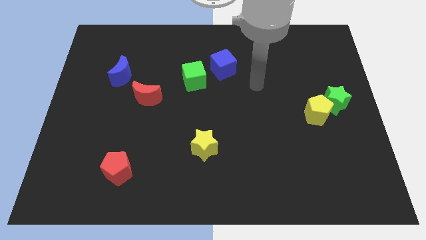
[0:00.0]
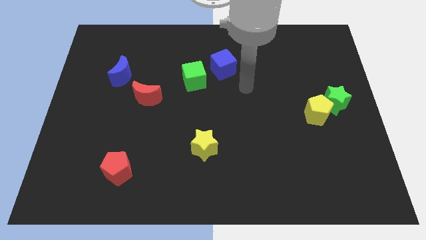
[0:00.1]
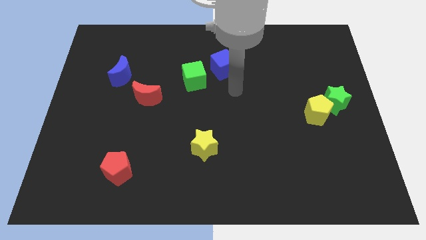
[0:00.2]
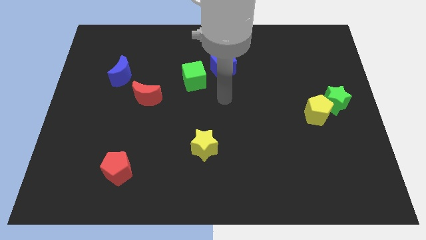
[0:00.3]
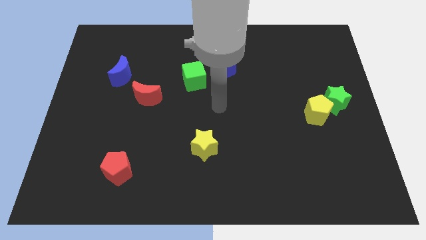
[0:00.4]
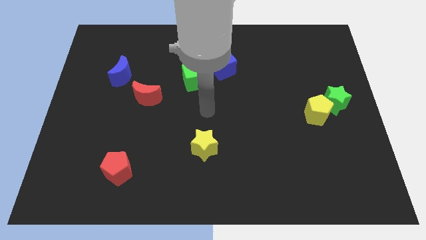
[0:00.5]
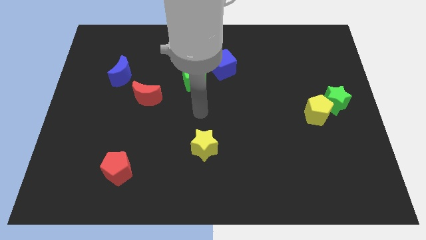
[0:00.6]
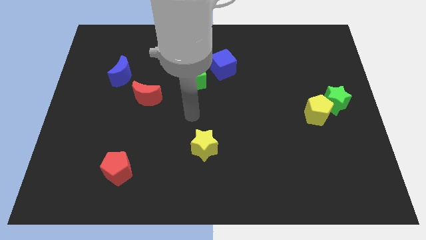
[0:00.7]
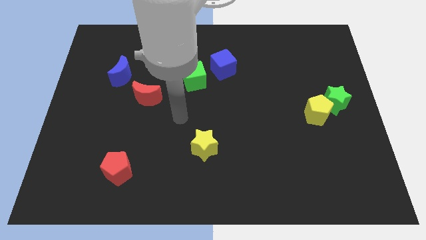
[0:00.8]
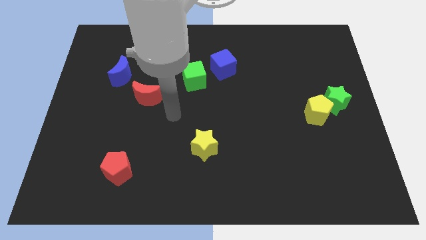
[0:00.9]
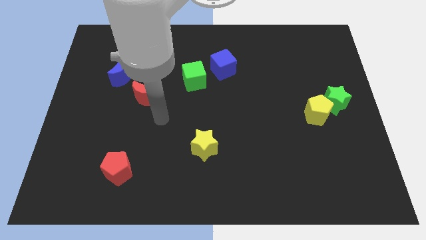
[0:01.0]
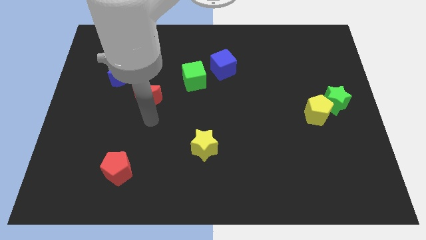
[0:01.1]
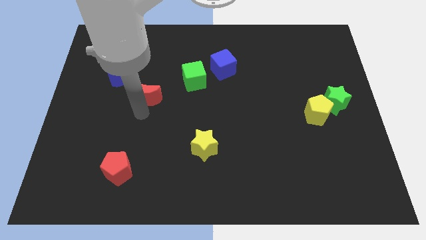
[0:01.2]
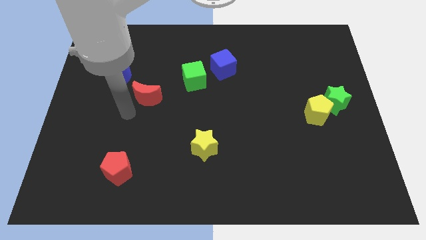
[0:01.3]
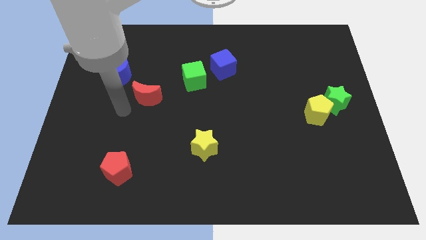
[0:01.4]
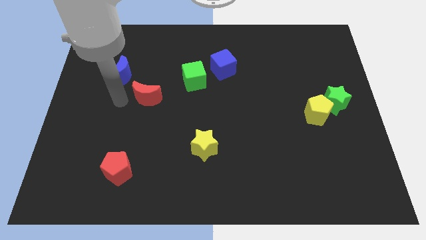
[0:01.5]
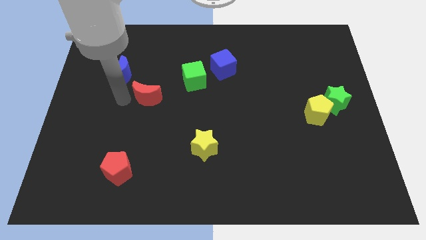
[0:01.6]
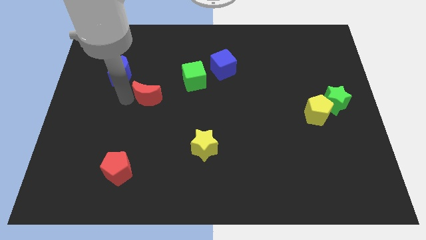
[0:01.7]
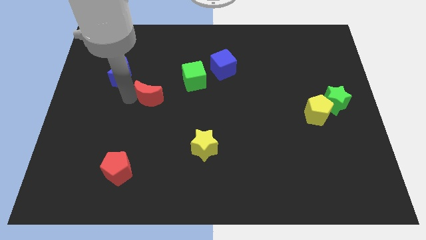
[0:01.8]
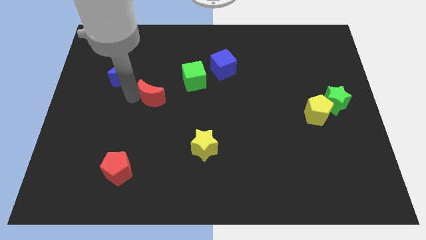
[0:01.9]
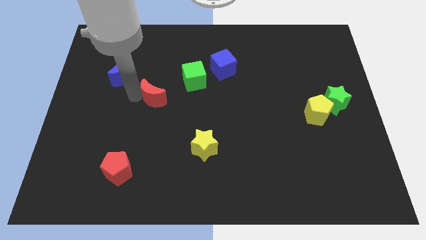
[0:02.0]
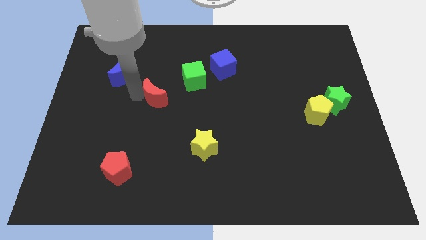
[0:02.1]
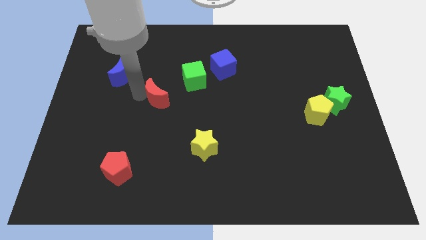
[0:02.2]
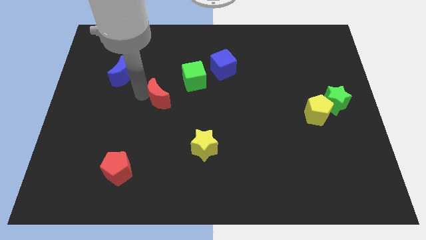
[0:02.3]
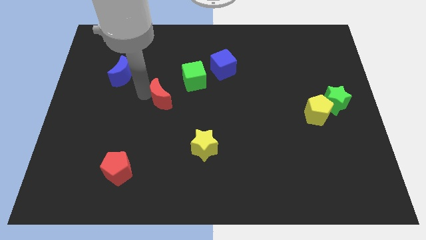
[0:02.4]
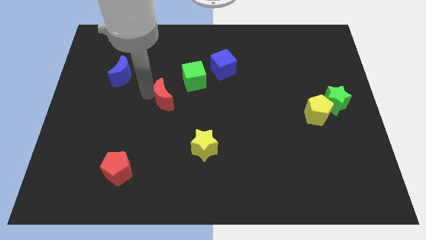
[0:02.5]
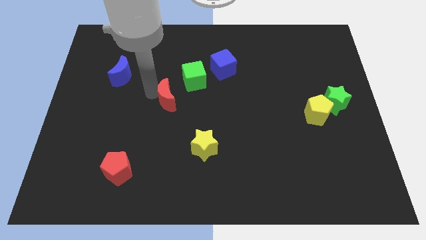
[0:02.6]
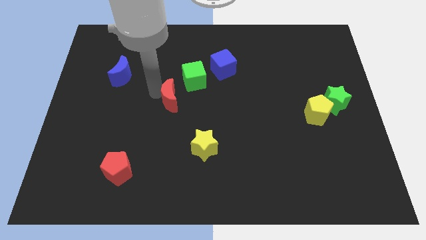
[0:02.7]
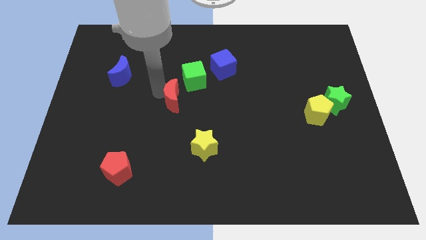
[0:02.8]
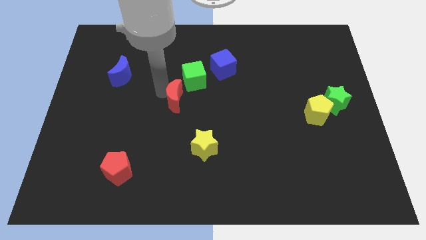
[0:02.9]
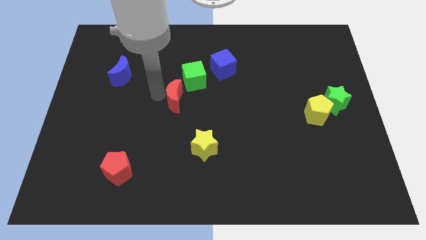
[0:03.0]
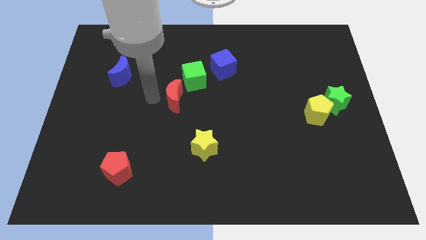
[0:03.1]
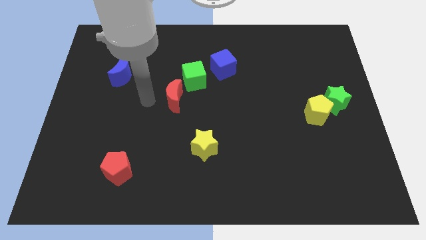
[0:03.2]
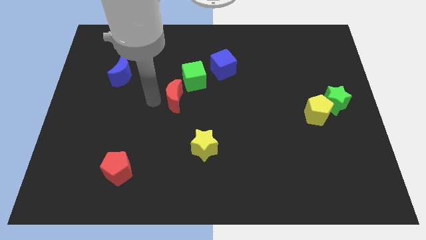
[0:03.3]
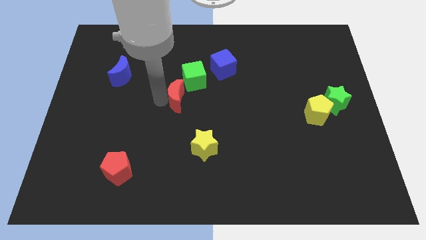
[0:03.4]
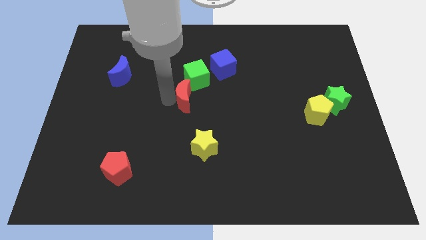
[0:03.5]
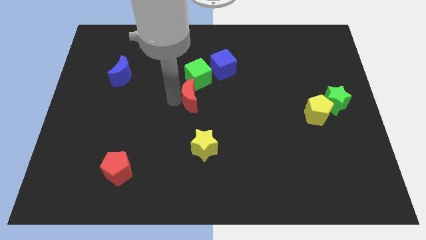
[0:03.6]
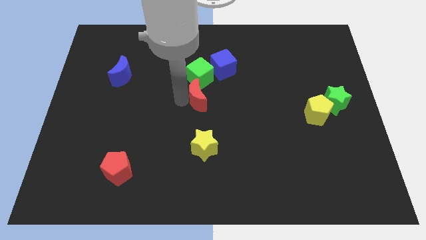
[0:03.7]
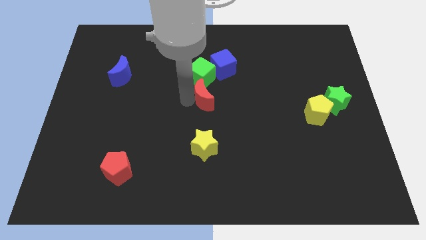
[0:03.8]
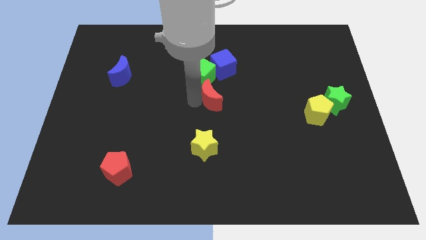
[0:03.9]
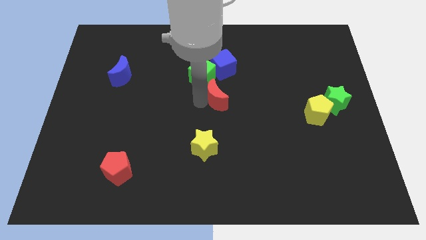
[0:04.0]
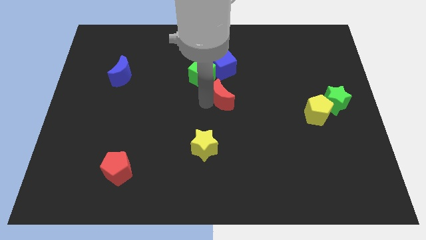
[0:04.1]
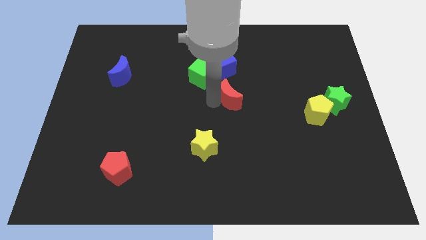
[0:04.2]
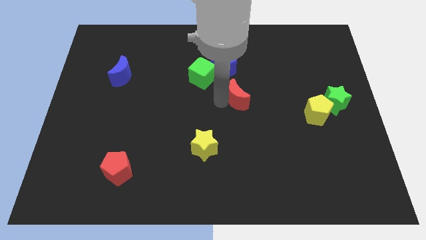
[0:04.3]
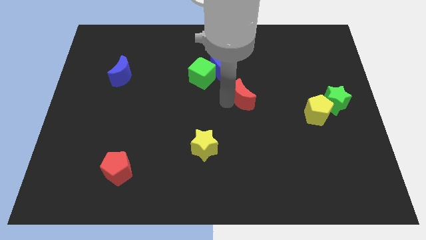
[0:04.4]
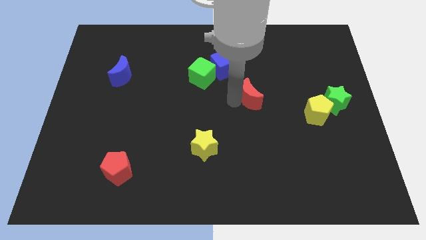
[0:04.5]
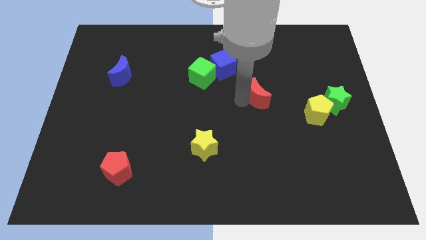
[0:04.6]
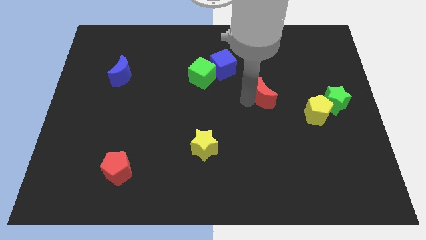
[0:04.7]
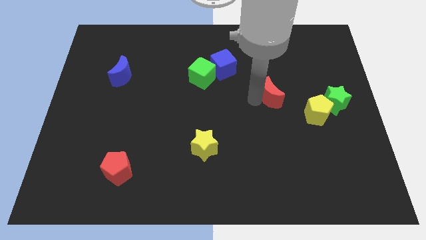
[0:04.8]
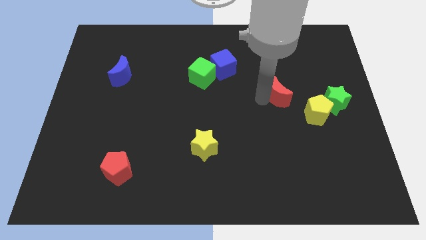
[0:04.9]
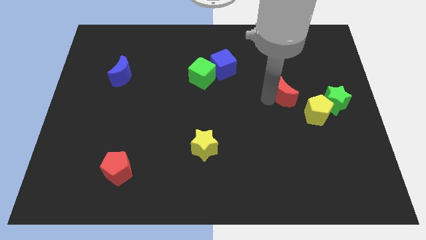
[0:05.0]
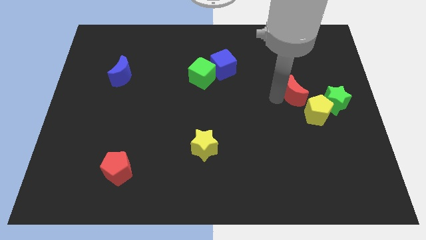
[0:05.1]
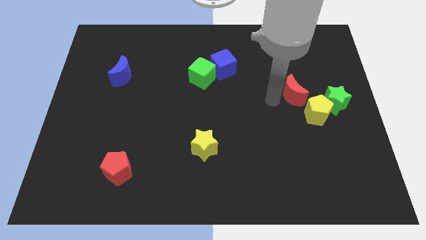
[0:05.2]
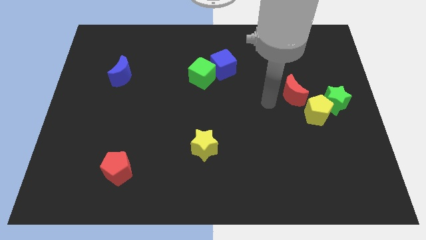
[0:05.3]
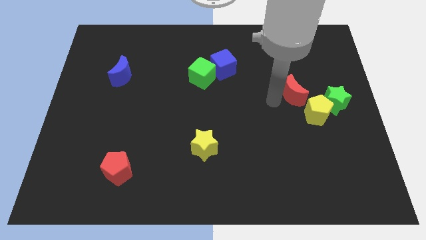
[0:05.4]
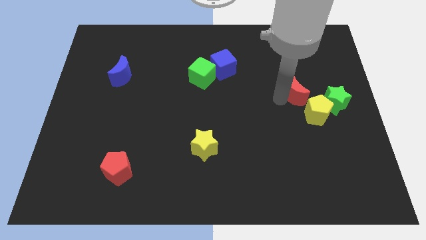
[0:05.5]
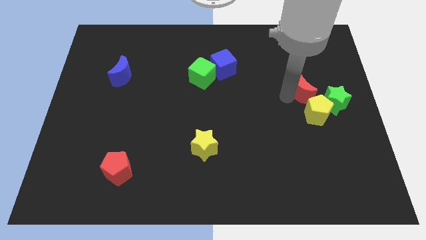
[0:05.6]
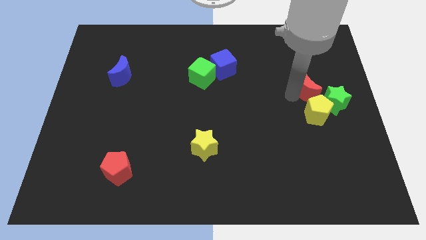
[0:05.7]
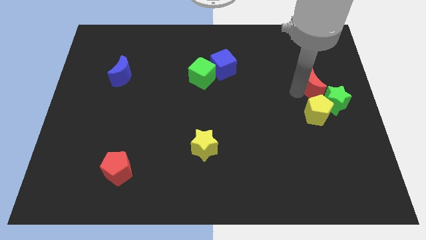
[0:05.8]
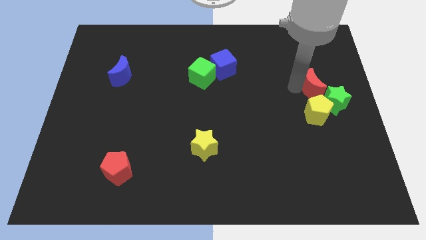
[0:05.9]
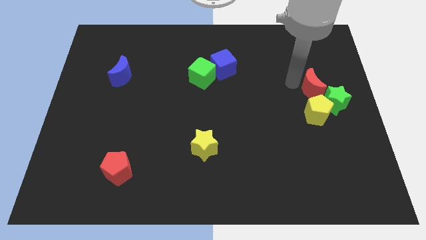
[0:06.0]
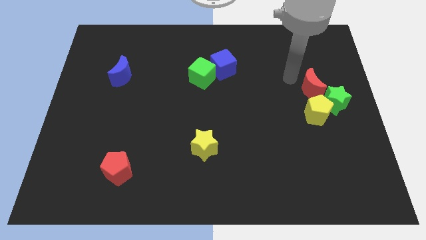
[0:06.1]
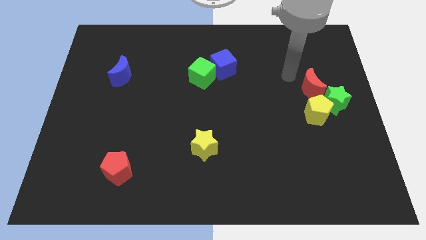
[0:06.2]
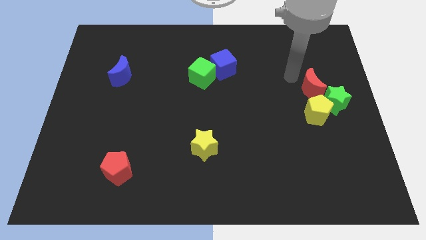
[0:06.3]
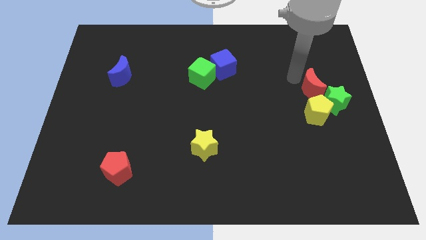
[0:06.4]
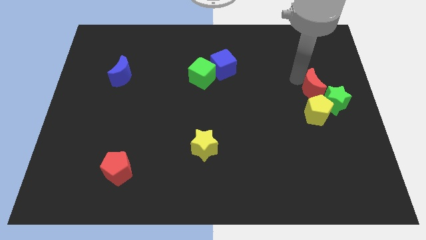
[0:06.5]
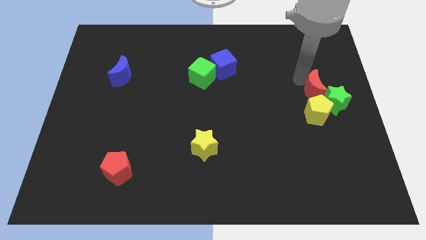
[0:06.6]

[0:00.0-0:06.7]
slide the red moon to the green star

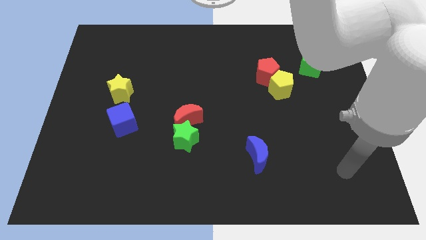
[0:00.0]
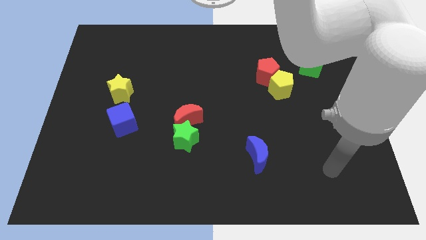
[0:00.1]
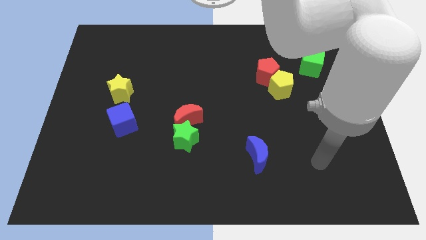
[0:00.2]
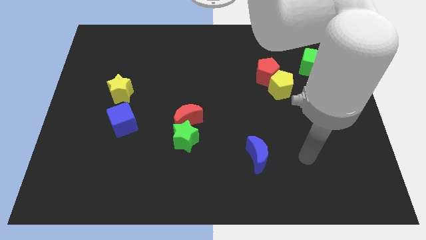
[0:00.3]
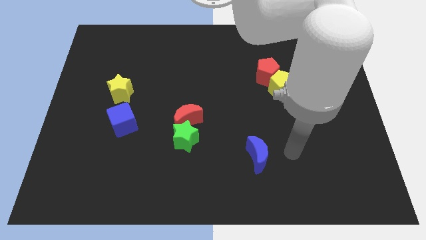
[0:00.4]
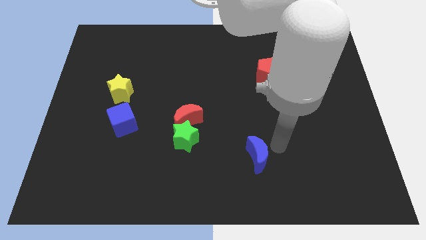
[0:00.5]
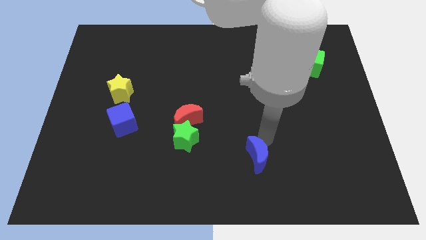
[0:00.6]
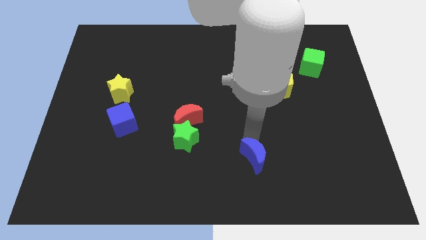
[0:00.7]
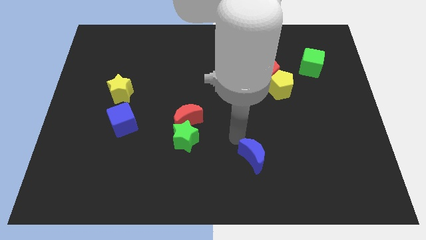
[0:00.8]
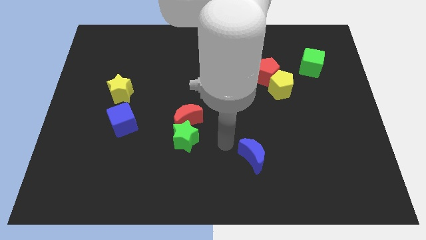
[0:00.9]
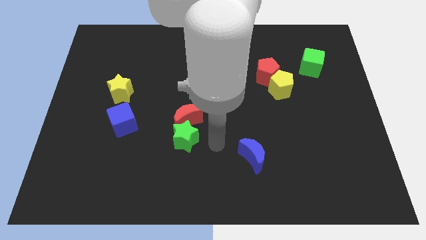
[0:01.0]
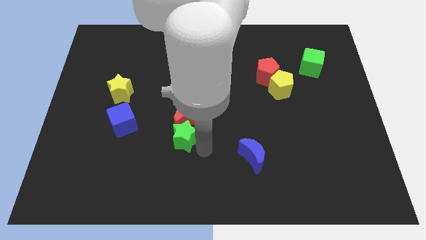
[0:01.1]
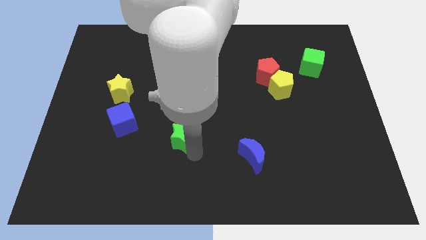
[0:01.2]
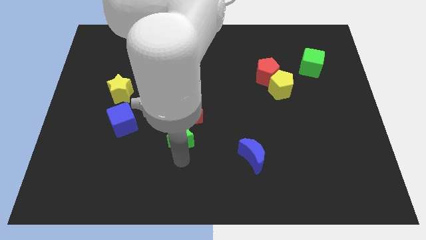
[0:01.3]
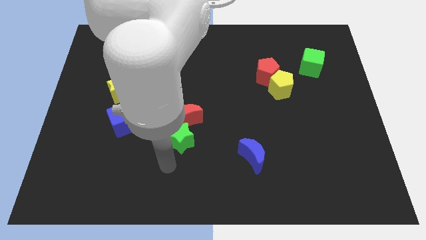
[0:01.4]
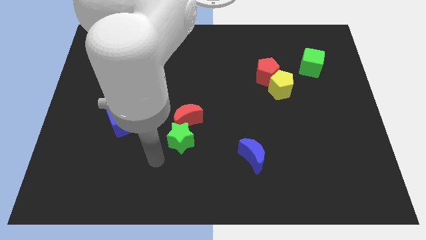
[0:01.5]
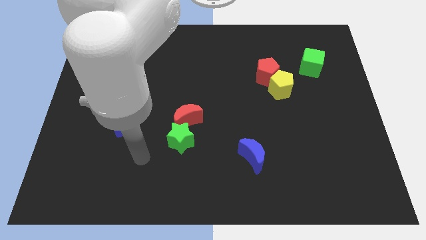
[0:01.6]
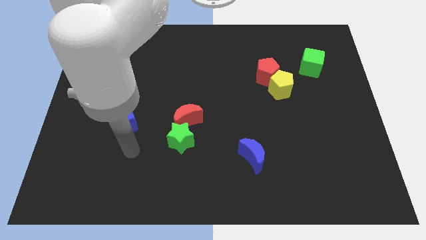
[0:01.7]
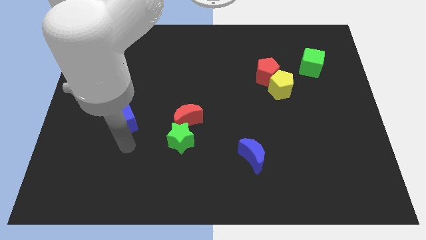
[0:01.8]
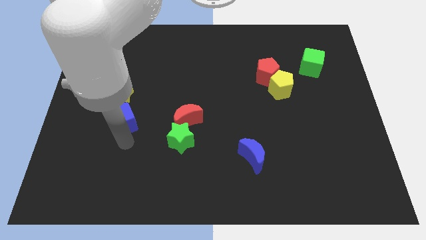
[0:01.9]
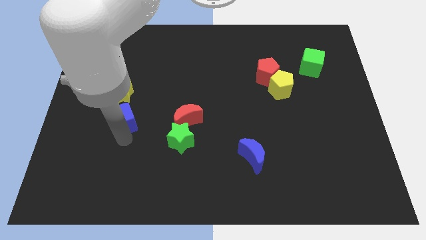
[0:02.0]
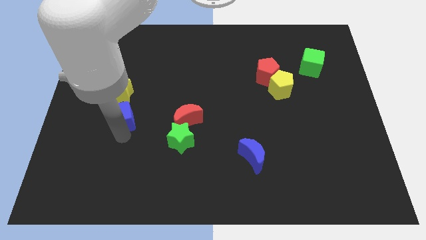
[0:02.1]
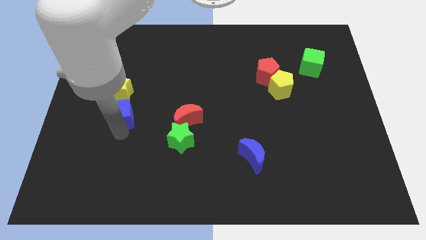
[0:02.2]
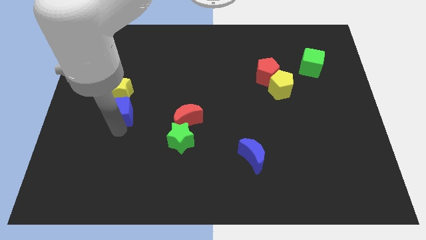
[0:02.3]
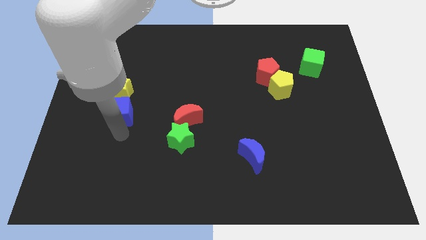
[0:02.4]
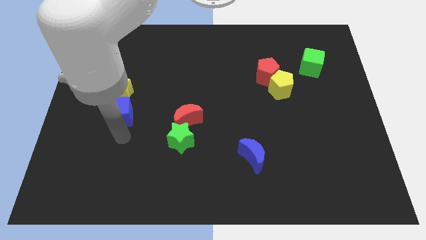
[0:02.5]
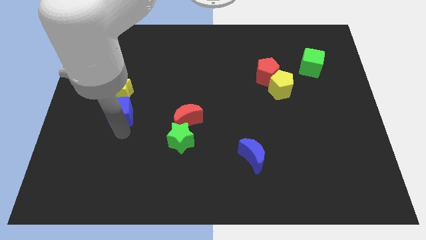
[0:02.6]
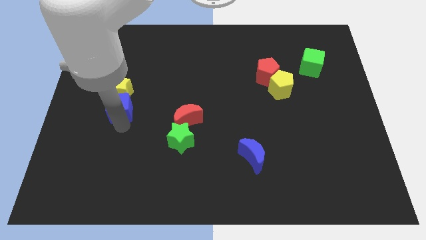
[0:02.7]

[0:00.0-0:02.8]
push the blue cube towards the yellow star
